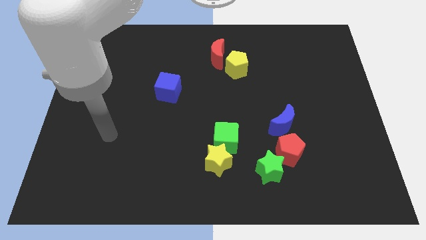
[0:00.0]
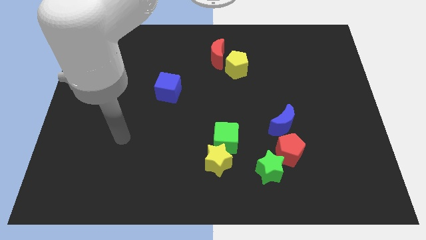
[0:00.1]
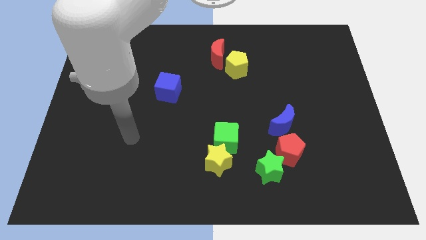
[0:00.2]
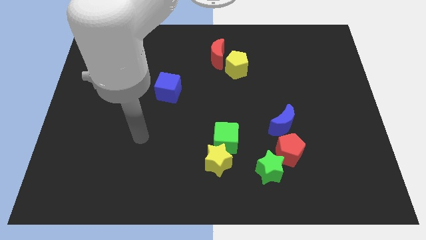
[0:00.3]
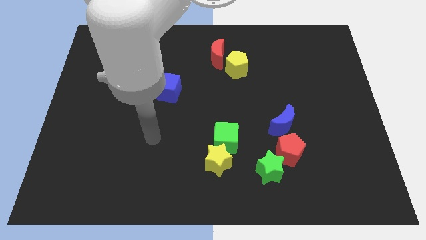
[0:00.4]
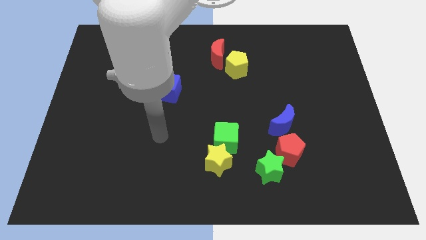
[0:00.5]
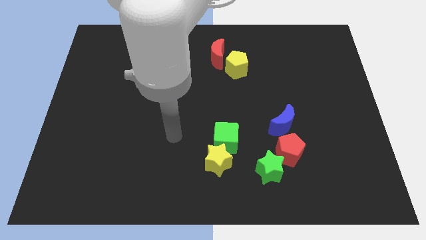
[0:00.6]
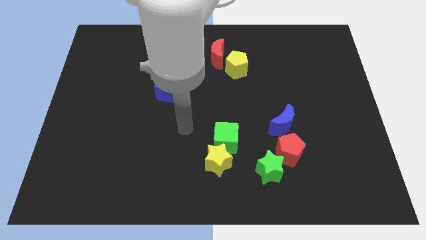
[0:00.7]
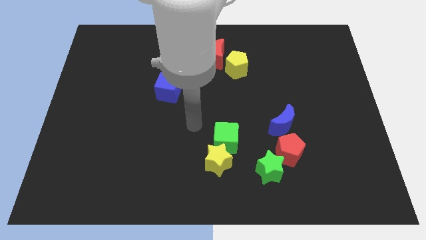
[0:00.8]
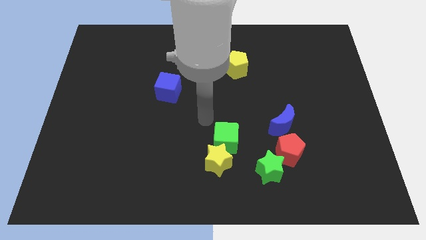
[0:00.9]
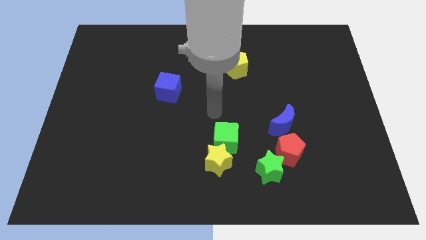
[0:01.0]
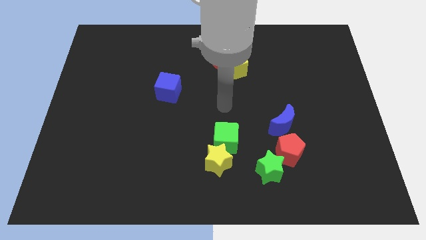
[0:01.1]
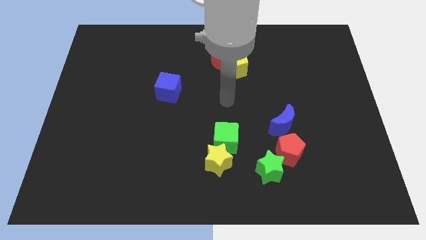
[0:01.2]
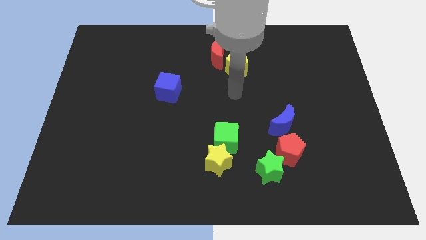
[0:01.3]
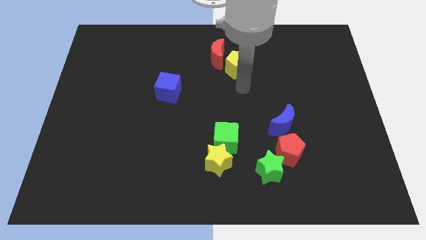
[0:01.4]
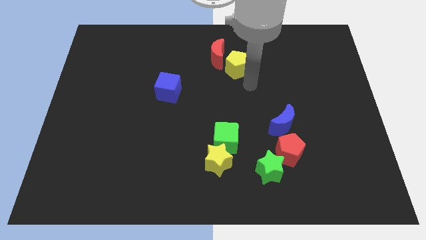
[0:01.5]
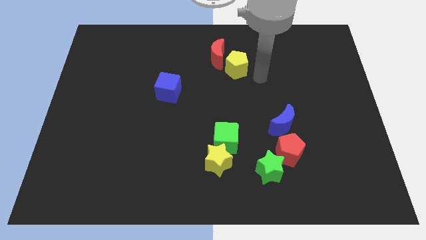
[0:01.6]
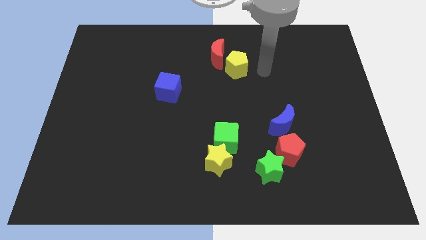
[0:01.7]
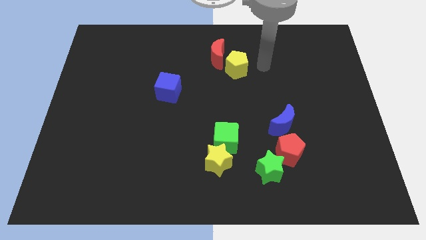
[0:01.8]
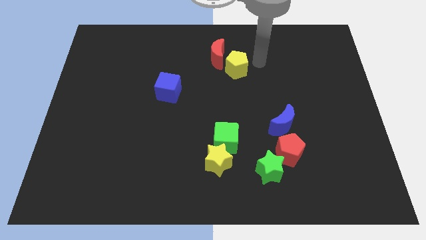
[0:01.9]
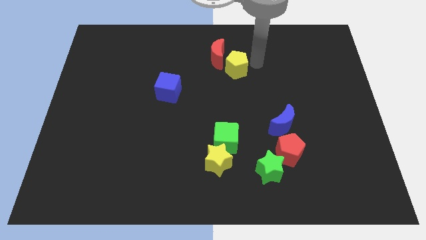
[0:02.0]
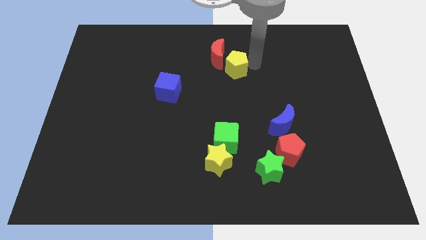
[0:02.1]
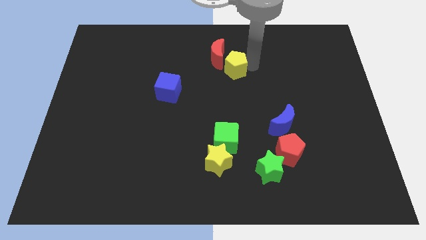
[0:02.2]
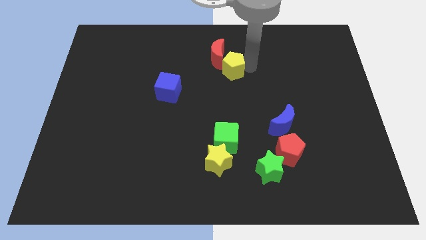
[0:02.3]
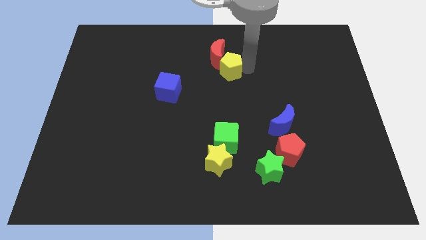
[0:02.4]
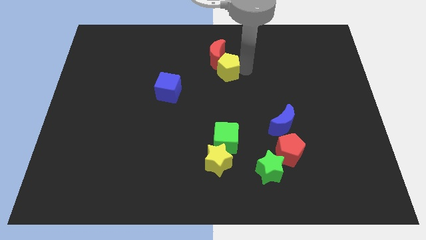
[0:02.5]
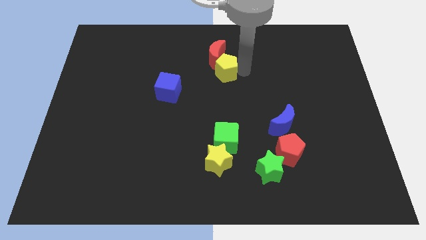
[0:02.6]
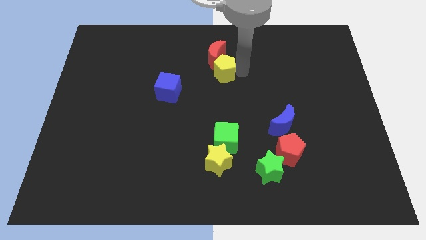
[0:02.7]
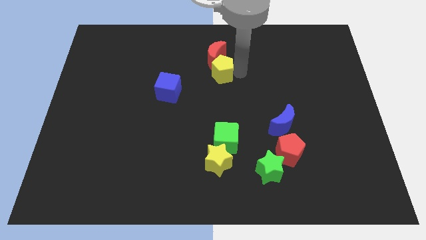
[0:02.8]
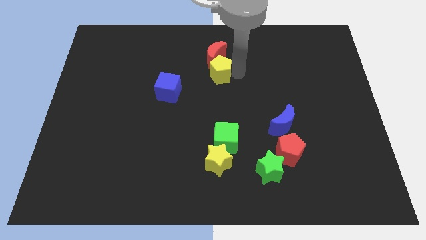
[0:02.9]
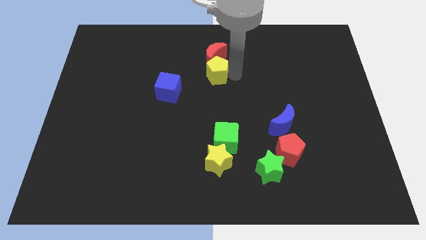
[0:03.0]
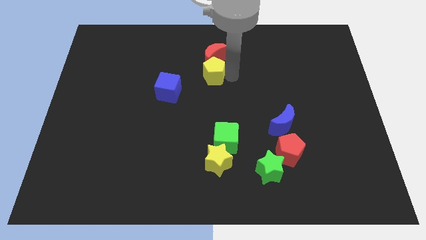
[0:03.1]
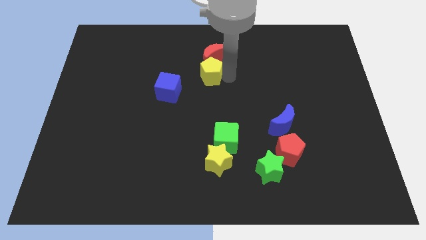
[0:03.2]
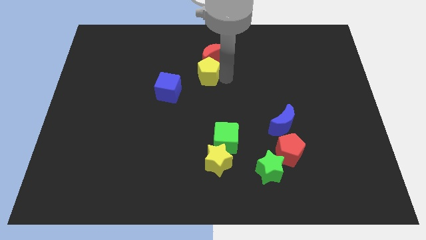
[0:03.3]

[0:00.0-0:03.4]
slide the yellow pentagon left a little

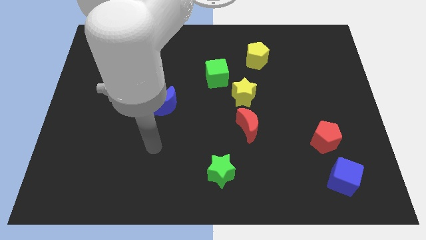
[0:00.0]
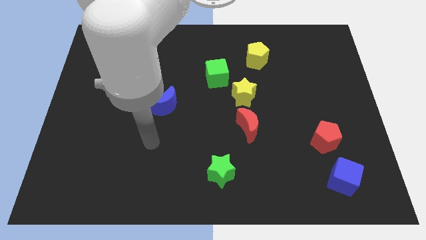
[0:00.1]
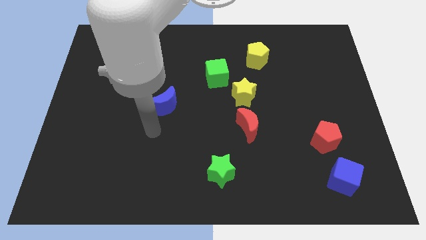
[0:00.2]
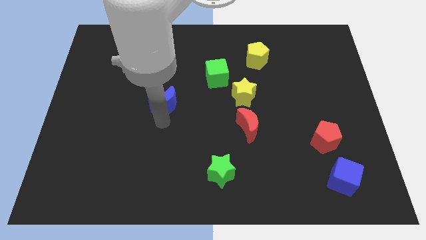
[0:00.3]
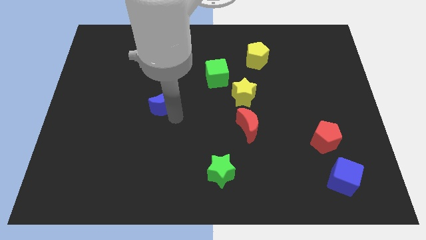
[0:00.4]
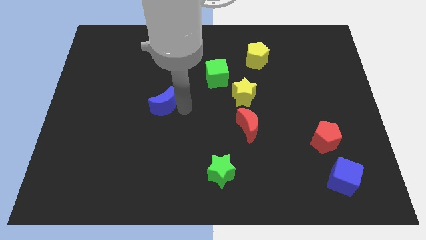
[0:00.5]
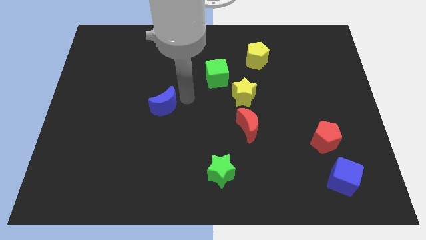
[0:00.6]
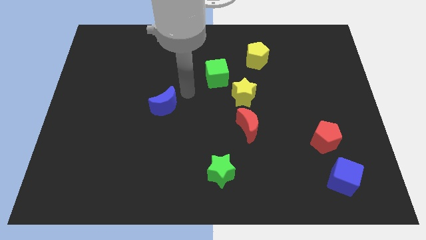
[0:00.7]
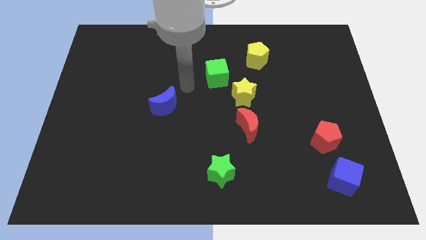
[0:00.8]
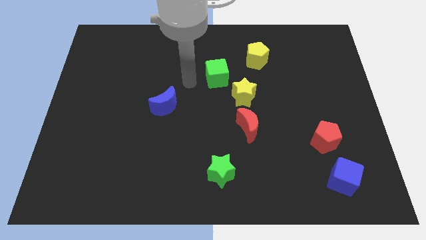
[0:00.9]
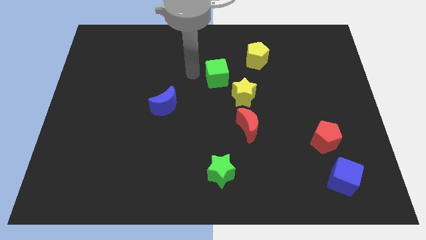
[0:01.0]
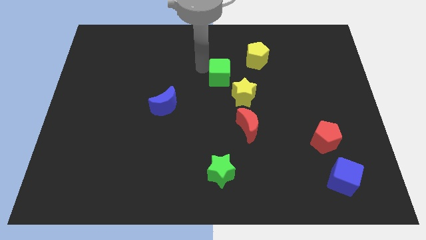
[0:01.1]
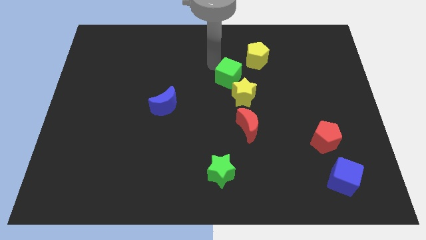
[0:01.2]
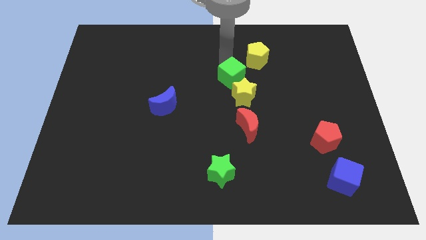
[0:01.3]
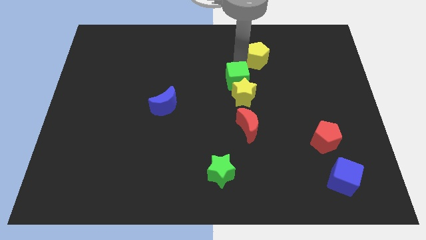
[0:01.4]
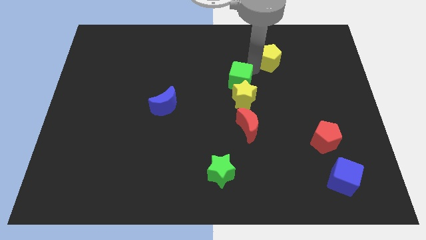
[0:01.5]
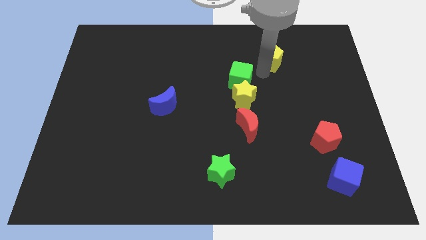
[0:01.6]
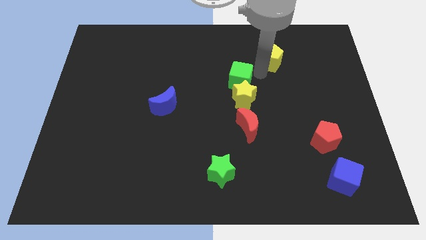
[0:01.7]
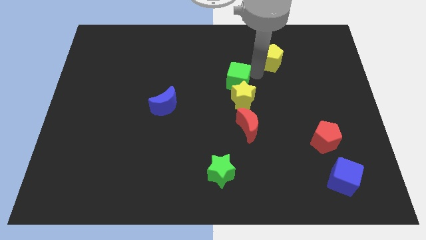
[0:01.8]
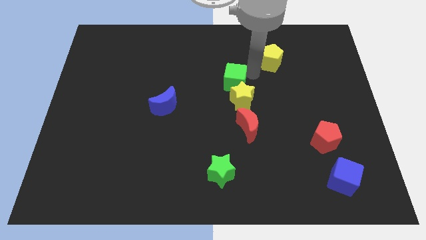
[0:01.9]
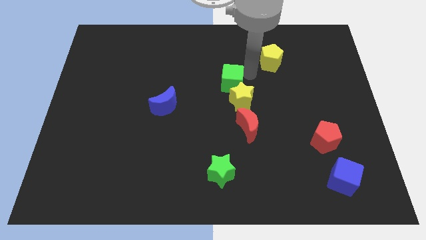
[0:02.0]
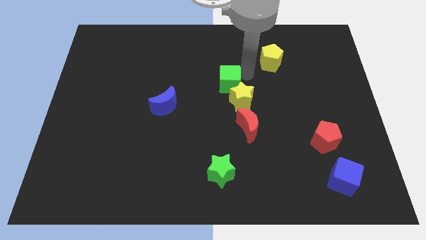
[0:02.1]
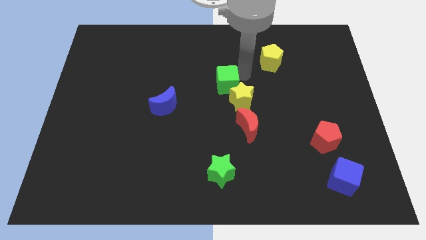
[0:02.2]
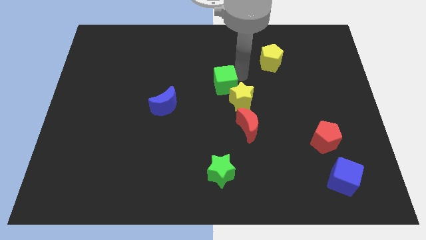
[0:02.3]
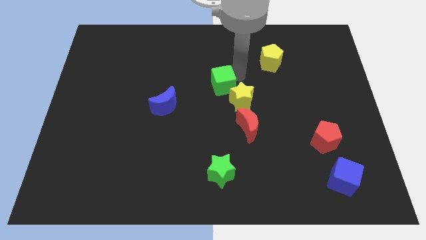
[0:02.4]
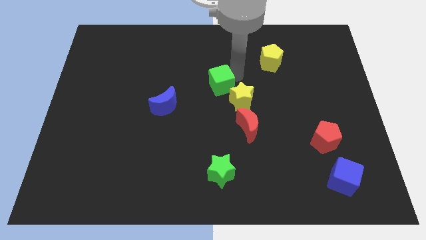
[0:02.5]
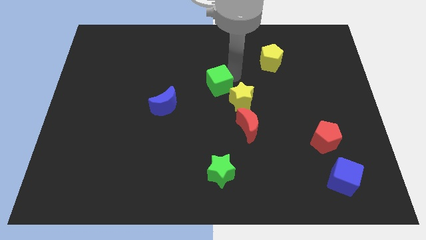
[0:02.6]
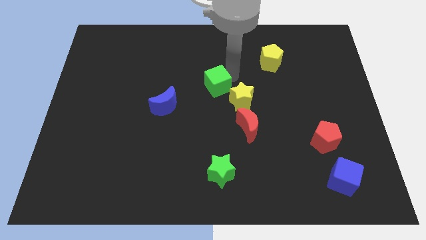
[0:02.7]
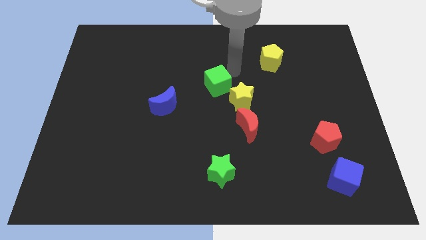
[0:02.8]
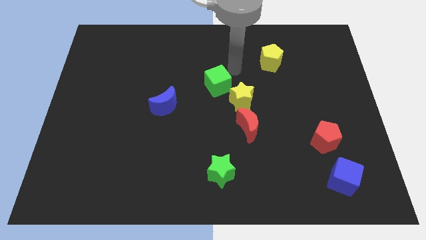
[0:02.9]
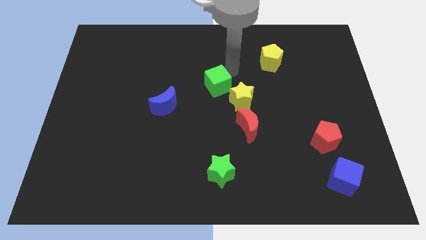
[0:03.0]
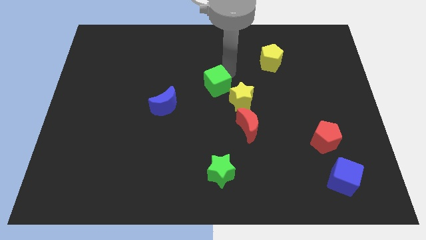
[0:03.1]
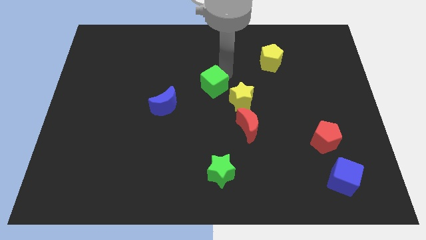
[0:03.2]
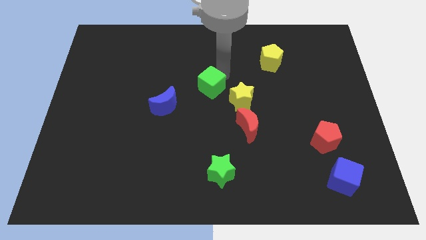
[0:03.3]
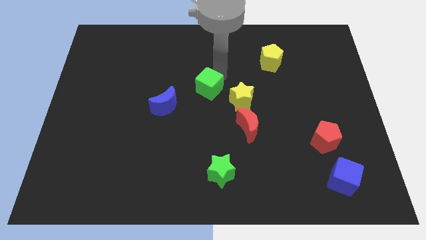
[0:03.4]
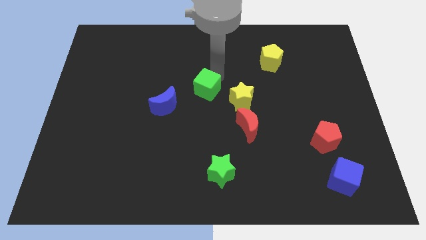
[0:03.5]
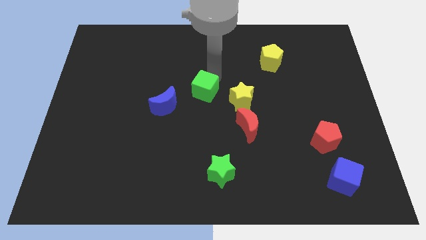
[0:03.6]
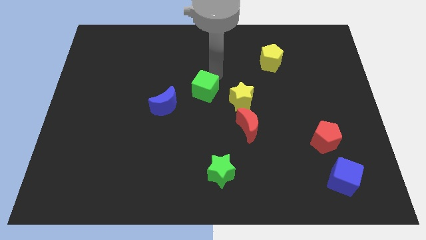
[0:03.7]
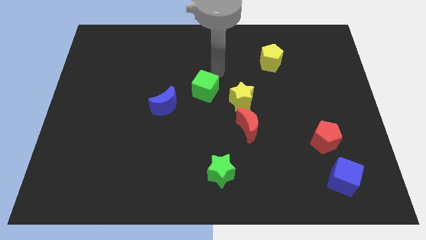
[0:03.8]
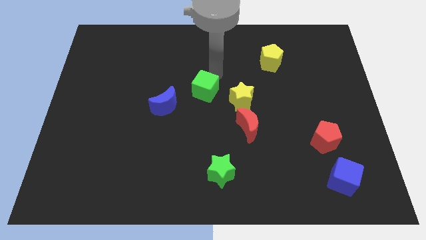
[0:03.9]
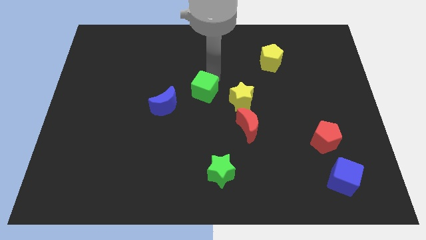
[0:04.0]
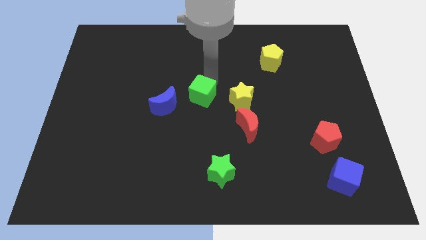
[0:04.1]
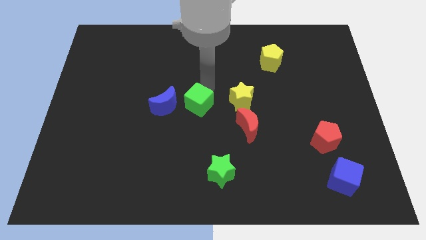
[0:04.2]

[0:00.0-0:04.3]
slightly slide the green cube down and left
